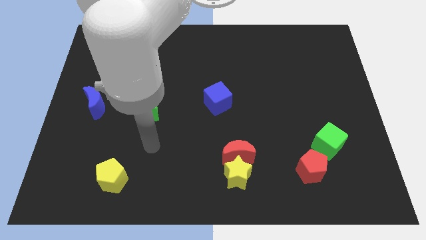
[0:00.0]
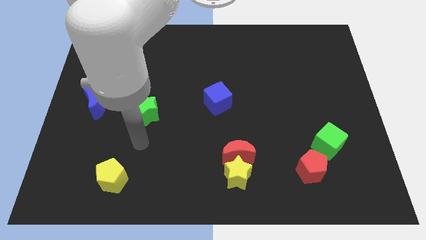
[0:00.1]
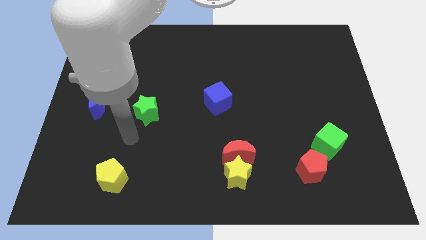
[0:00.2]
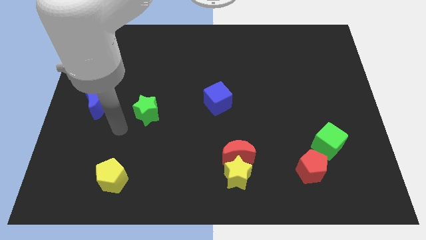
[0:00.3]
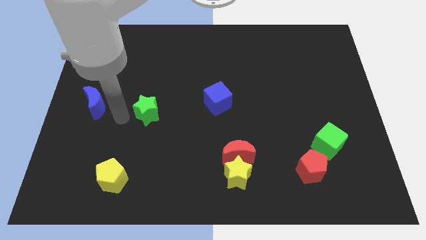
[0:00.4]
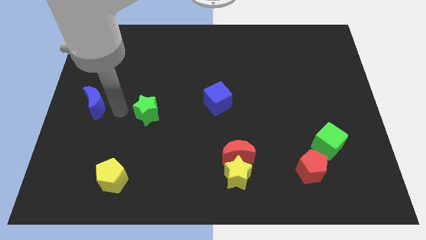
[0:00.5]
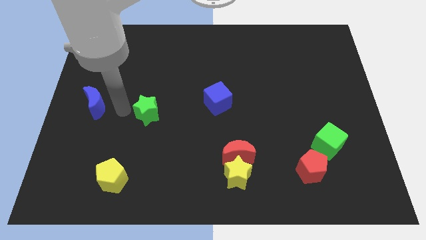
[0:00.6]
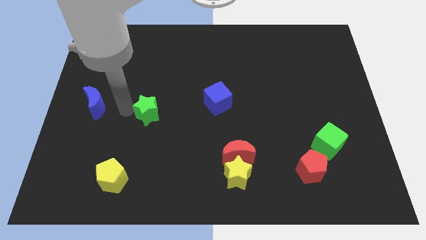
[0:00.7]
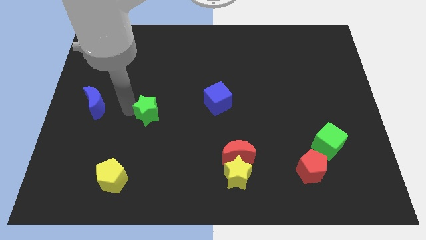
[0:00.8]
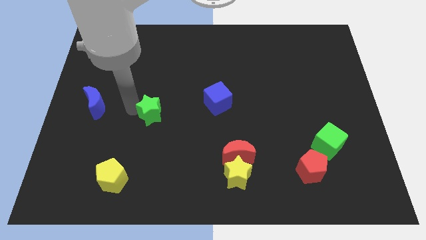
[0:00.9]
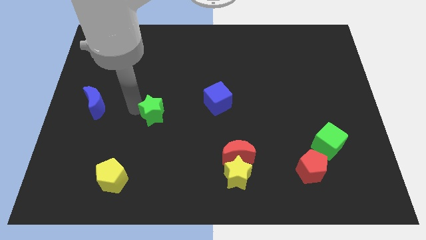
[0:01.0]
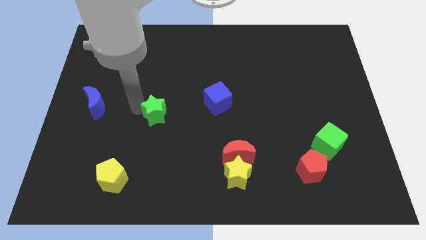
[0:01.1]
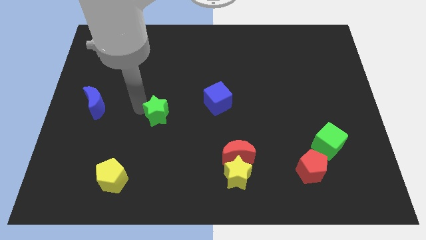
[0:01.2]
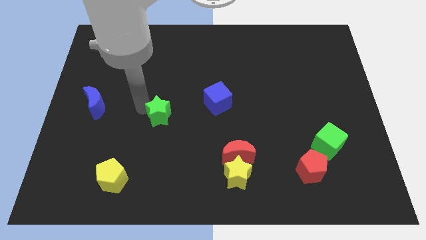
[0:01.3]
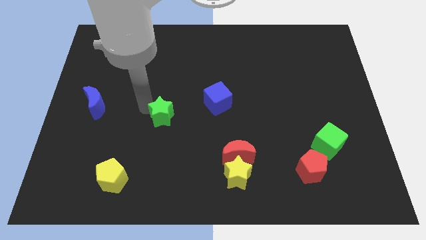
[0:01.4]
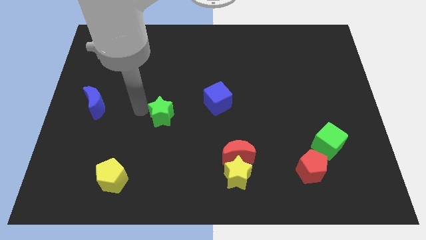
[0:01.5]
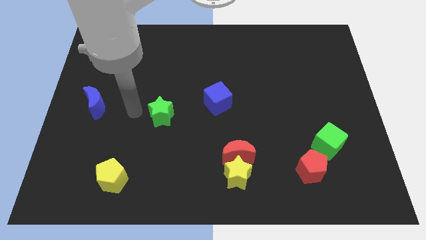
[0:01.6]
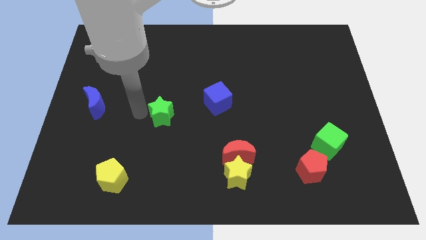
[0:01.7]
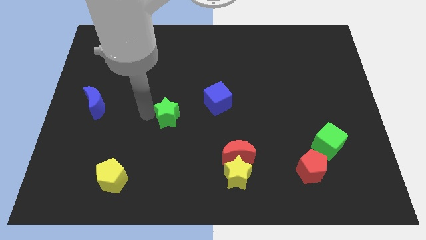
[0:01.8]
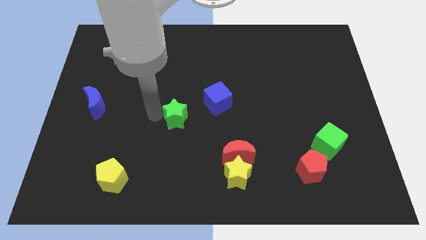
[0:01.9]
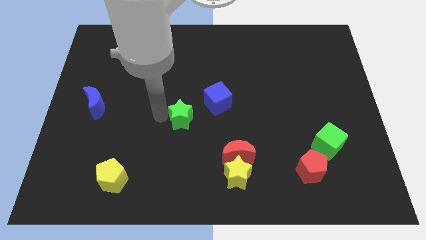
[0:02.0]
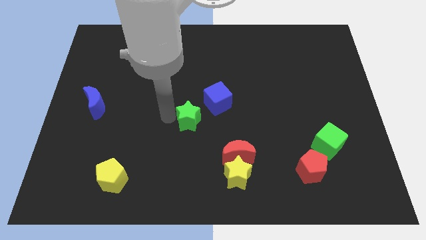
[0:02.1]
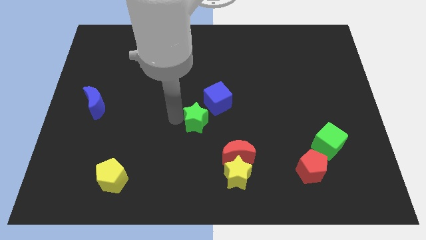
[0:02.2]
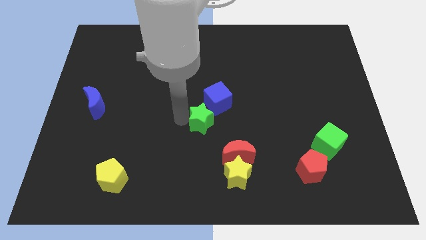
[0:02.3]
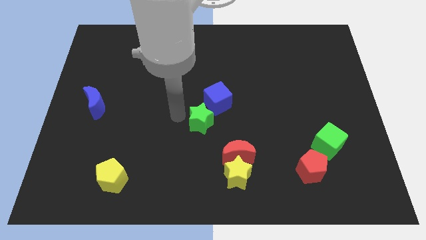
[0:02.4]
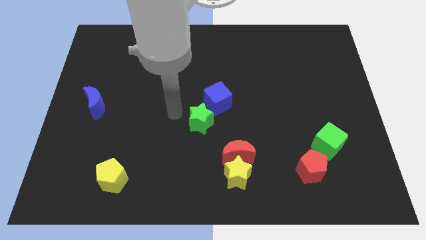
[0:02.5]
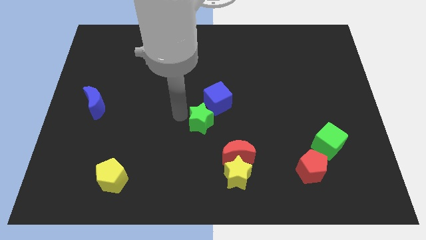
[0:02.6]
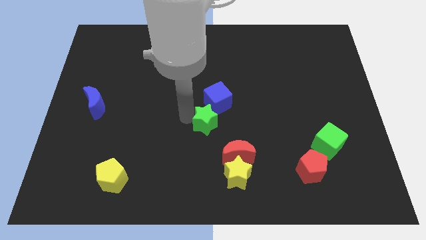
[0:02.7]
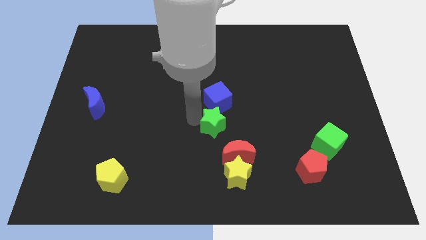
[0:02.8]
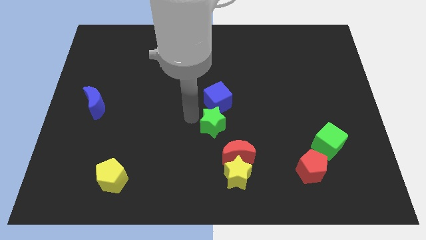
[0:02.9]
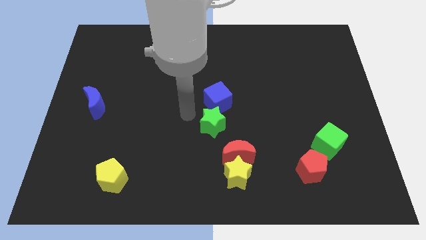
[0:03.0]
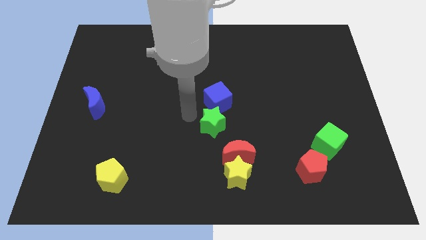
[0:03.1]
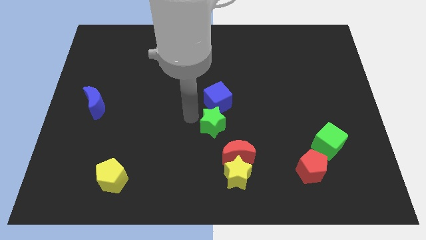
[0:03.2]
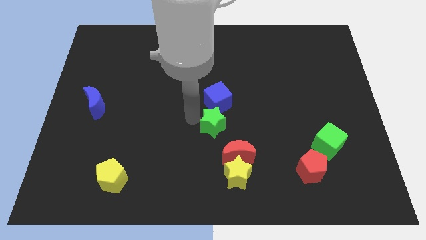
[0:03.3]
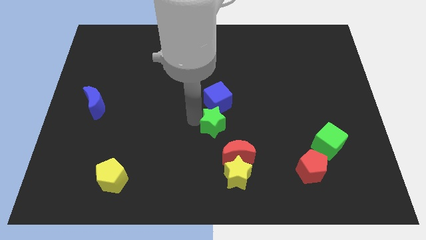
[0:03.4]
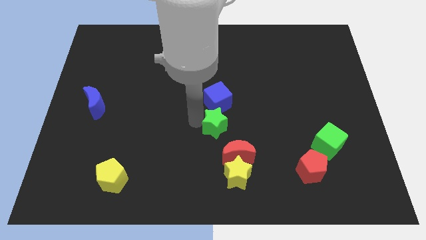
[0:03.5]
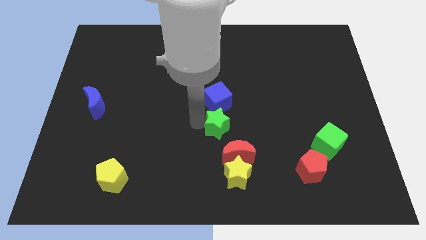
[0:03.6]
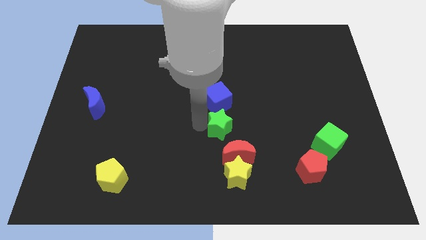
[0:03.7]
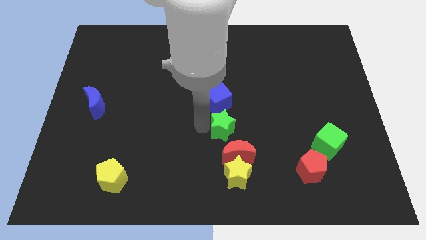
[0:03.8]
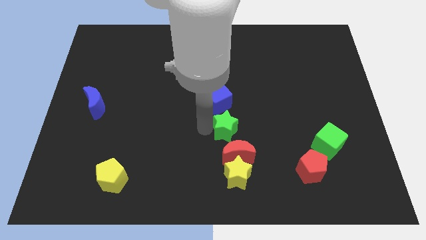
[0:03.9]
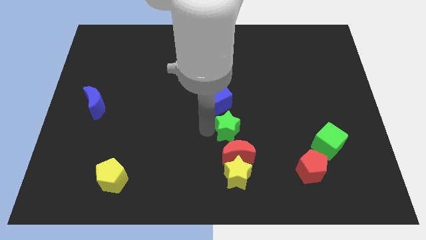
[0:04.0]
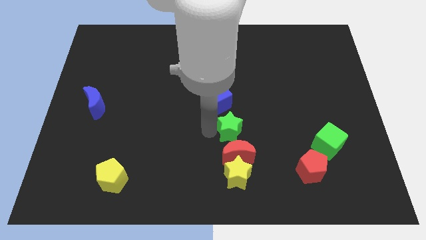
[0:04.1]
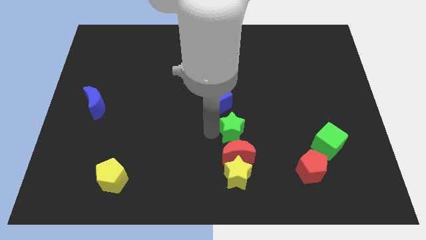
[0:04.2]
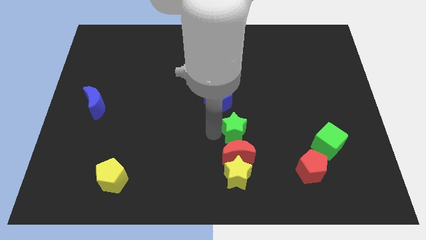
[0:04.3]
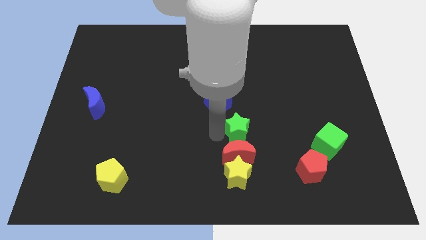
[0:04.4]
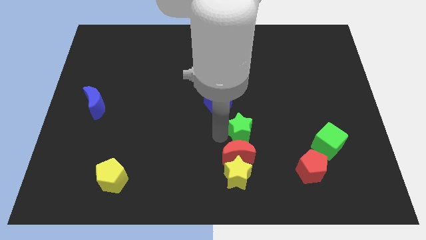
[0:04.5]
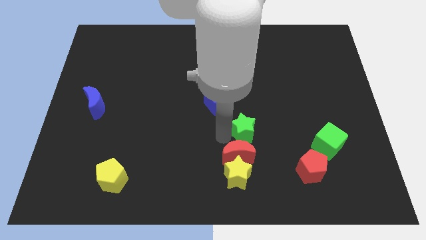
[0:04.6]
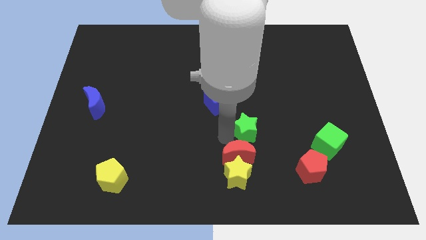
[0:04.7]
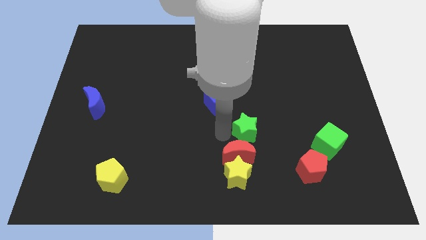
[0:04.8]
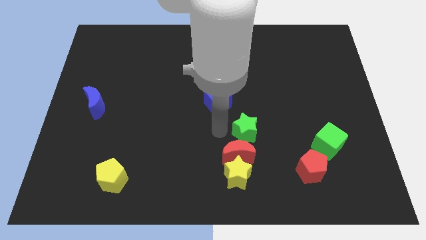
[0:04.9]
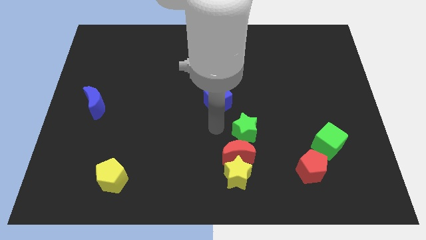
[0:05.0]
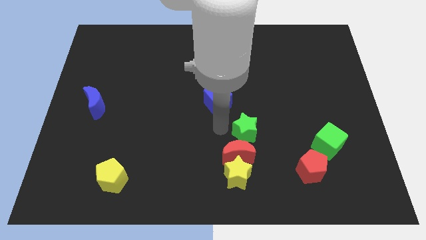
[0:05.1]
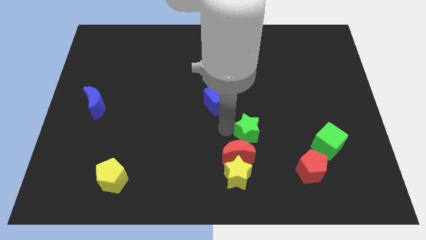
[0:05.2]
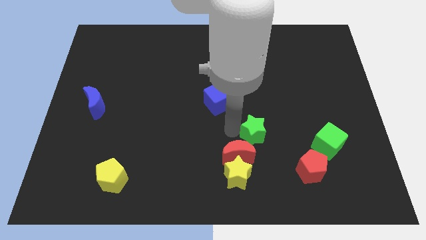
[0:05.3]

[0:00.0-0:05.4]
push the green star to the top right of the yellow star

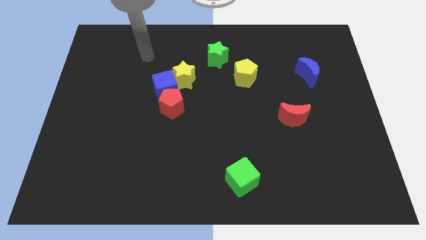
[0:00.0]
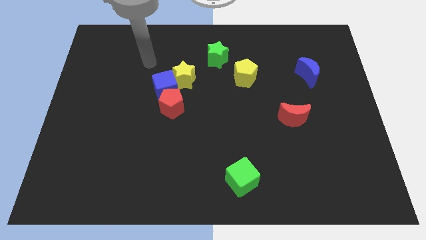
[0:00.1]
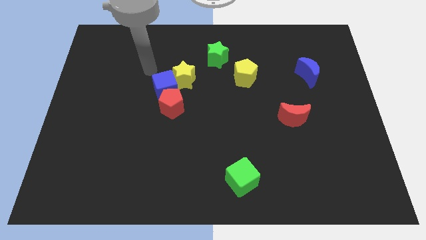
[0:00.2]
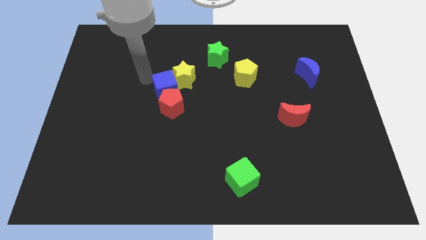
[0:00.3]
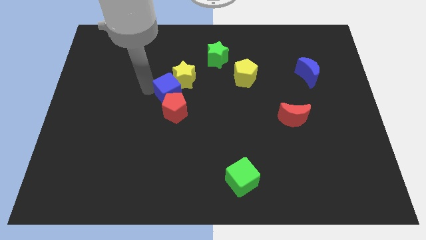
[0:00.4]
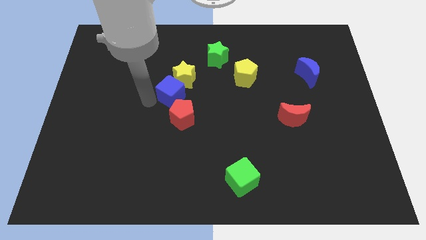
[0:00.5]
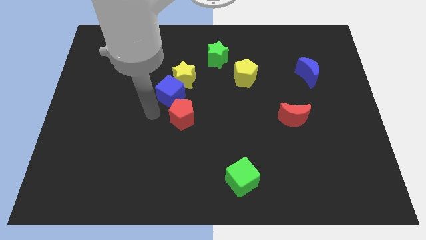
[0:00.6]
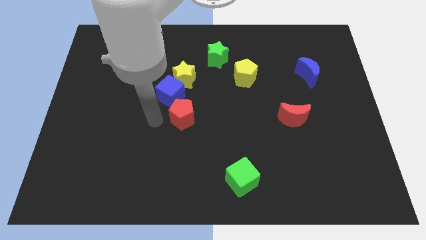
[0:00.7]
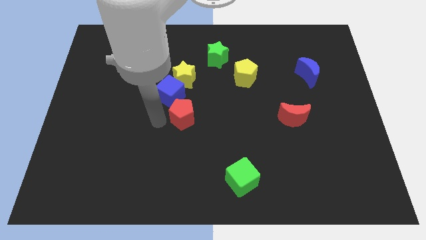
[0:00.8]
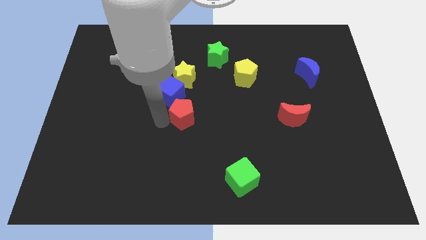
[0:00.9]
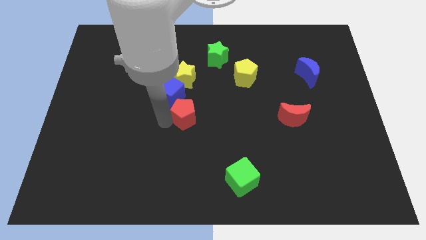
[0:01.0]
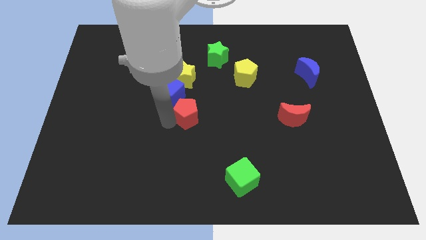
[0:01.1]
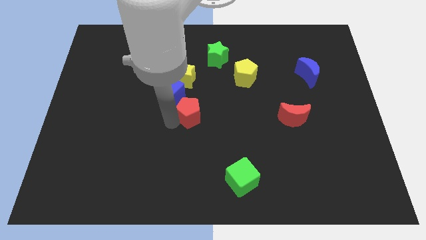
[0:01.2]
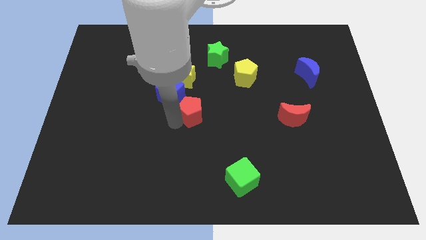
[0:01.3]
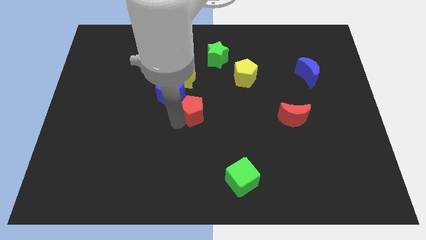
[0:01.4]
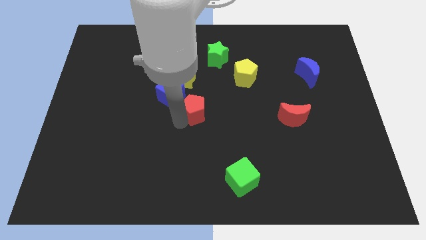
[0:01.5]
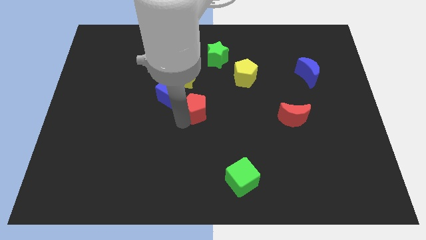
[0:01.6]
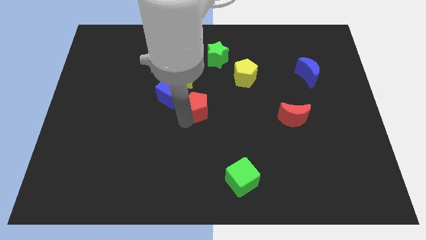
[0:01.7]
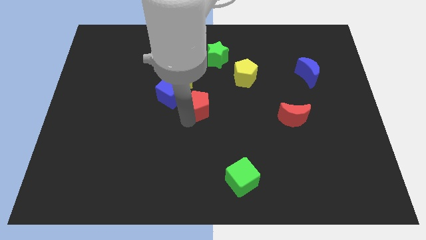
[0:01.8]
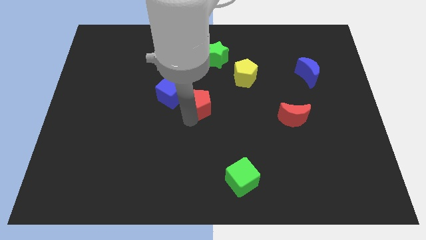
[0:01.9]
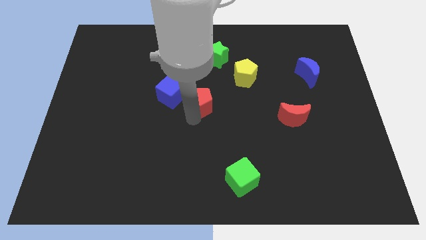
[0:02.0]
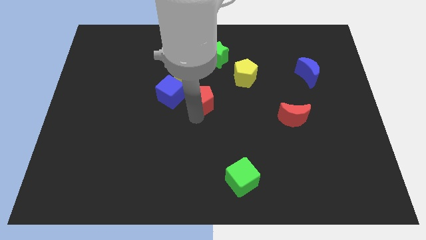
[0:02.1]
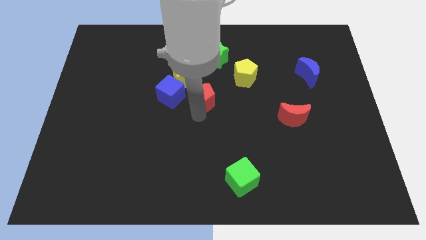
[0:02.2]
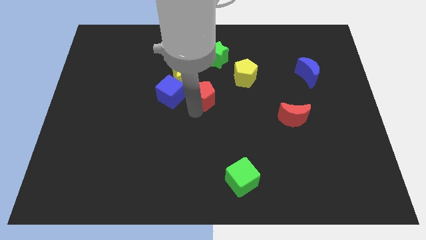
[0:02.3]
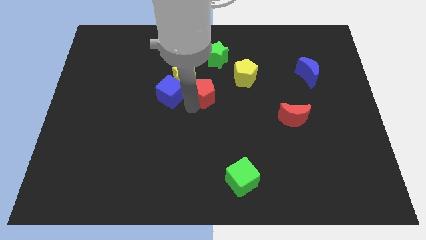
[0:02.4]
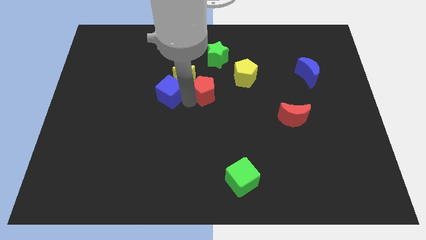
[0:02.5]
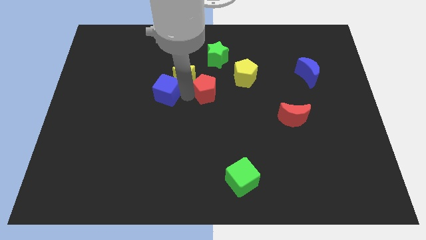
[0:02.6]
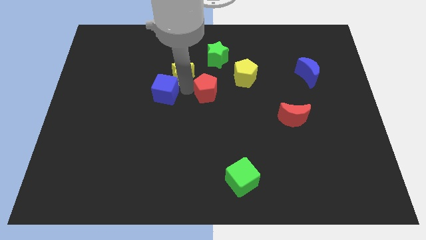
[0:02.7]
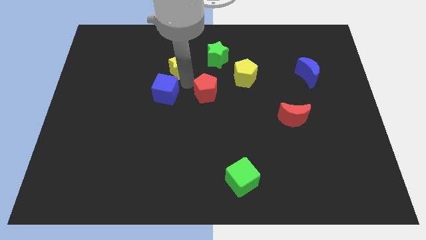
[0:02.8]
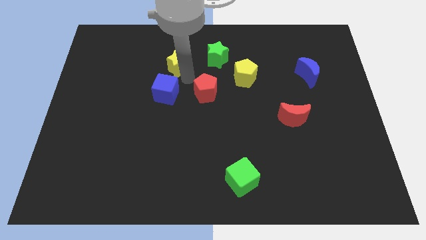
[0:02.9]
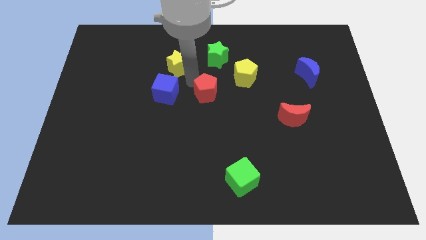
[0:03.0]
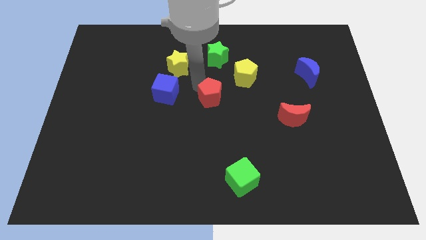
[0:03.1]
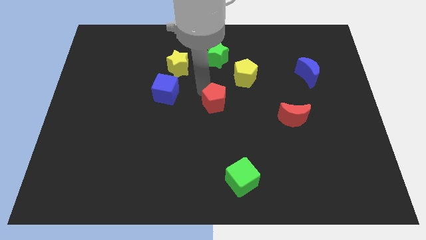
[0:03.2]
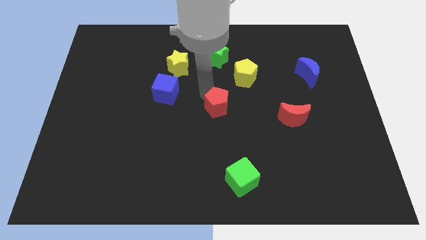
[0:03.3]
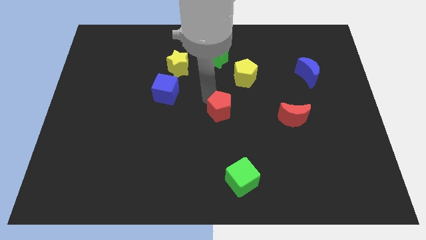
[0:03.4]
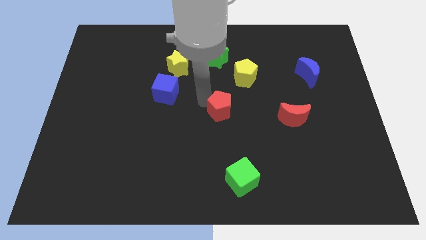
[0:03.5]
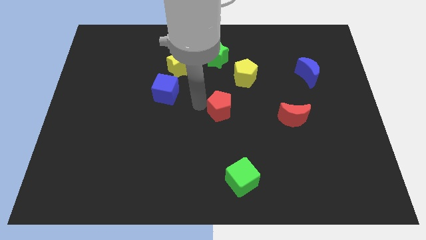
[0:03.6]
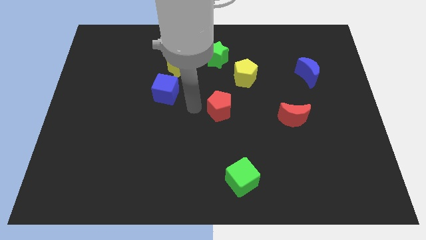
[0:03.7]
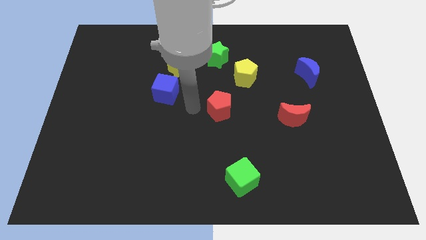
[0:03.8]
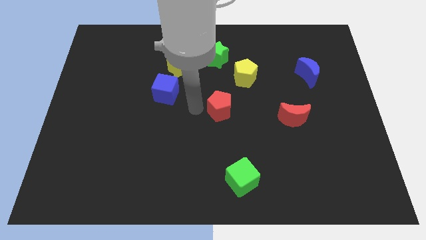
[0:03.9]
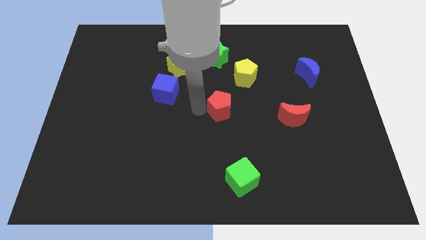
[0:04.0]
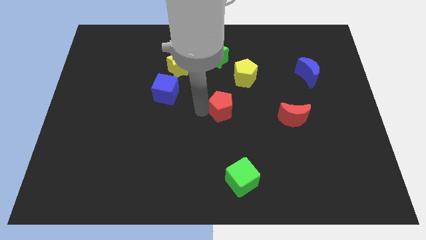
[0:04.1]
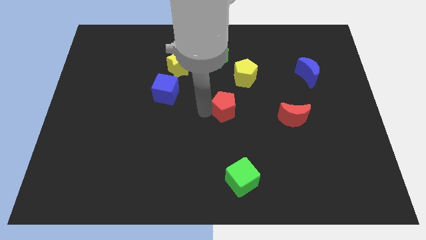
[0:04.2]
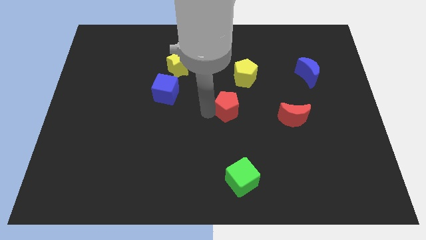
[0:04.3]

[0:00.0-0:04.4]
push the red pentagon to the bottom side of the yellow pentagon
